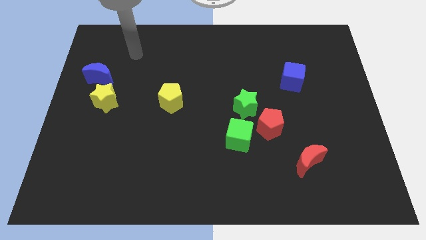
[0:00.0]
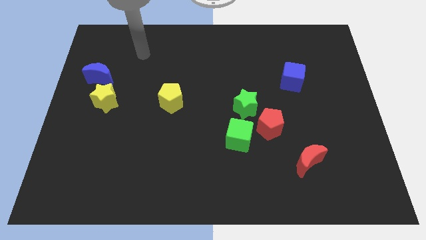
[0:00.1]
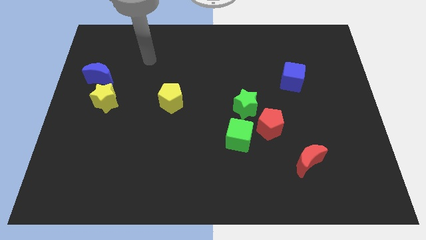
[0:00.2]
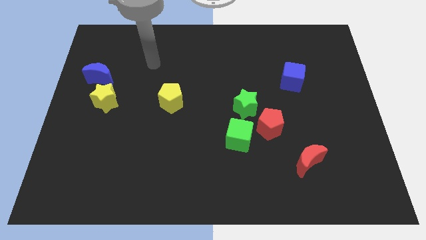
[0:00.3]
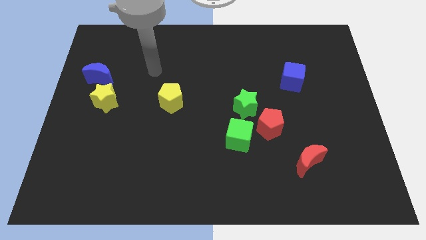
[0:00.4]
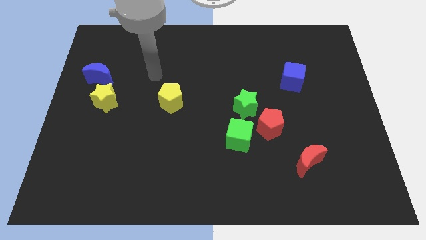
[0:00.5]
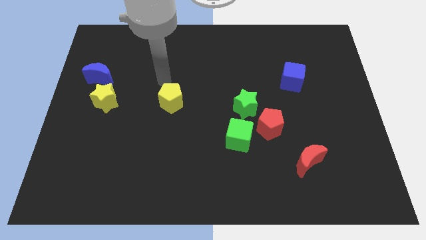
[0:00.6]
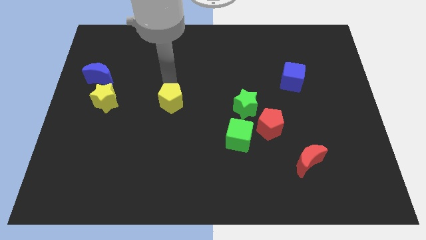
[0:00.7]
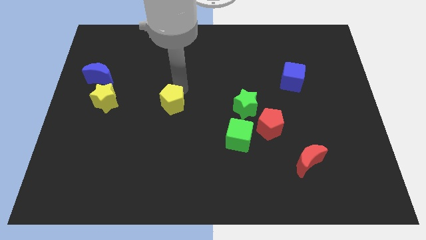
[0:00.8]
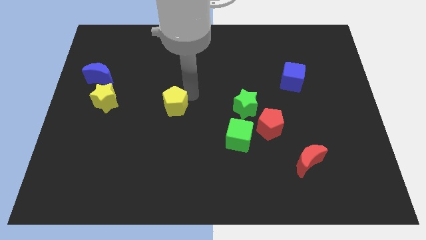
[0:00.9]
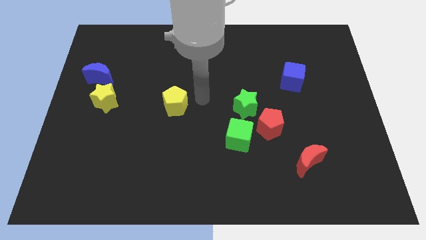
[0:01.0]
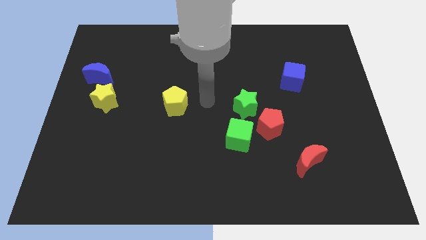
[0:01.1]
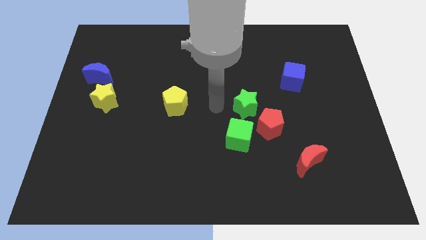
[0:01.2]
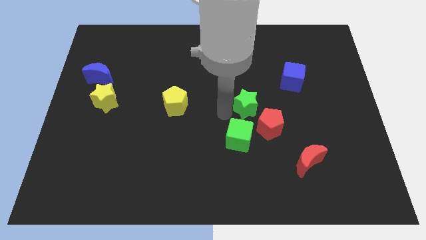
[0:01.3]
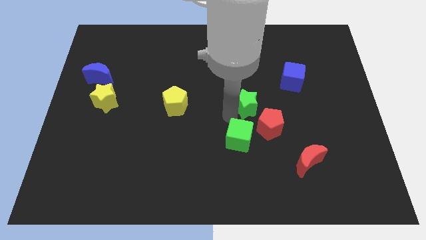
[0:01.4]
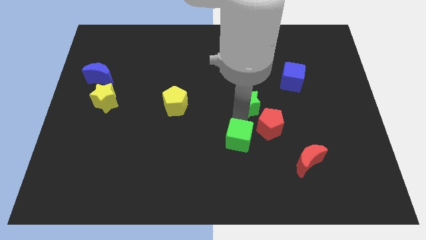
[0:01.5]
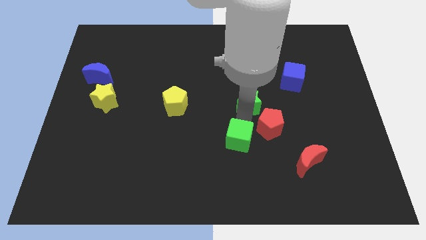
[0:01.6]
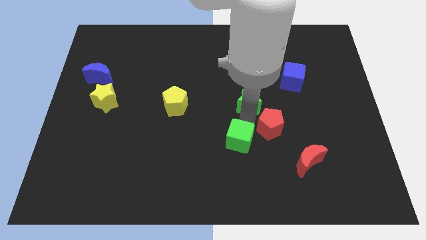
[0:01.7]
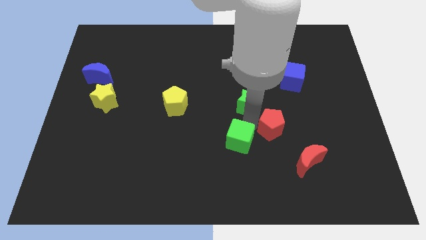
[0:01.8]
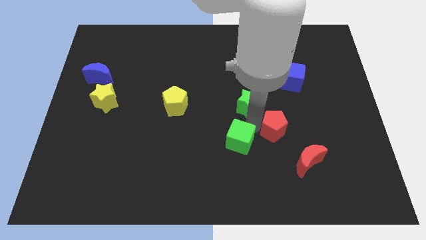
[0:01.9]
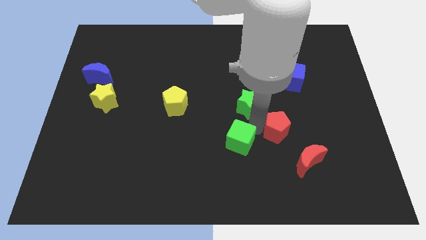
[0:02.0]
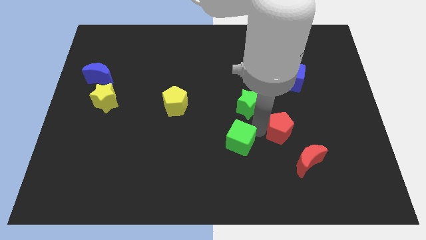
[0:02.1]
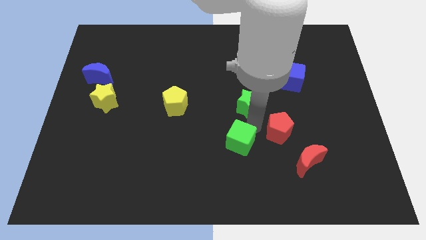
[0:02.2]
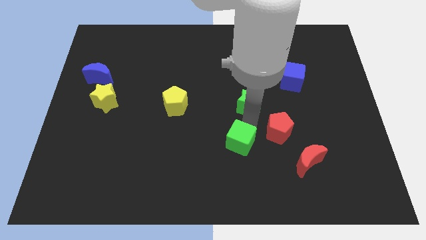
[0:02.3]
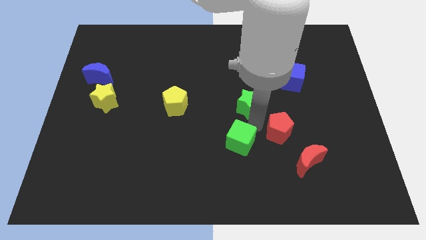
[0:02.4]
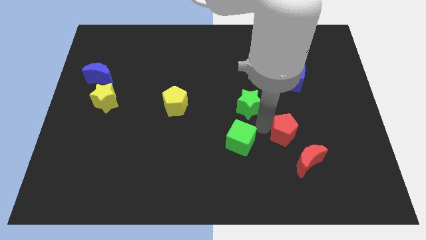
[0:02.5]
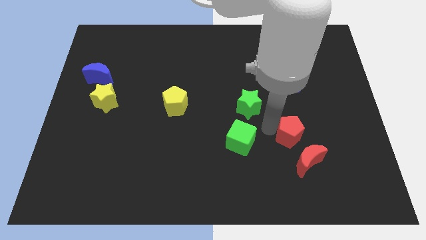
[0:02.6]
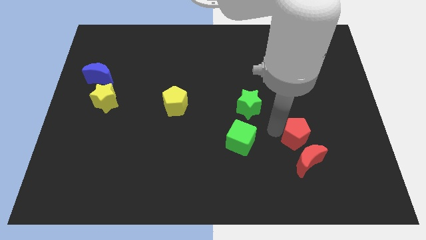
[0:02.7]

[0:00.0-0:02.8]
separate the red pentagon from the green star and green cube

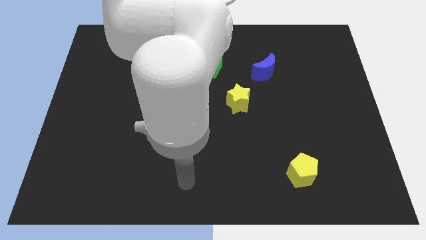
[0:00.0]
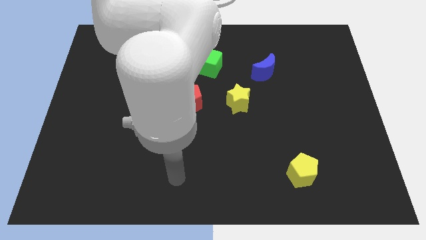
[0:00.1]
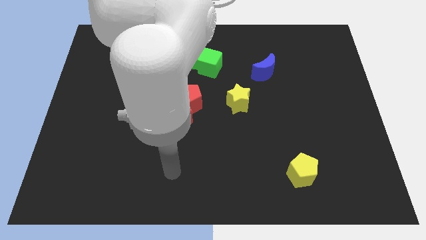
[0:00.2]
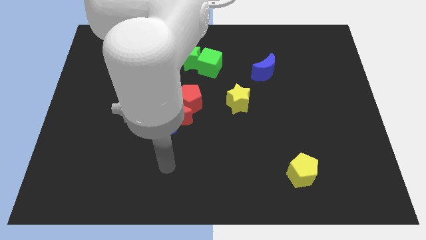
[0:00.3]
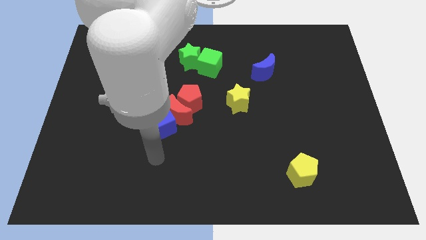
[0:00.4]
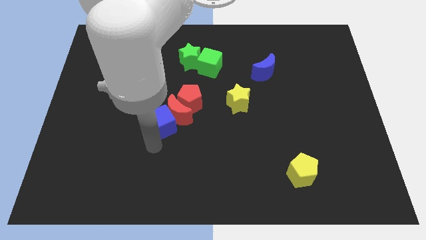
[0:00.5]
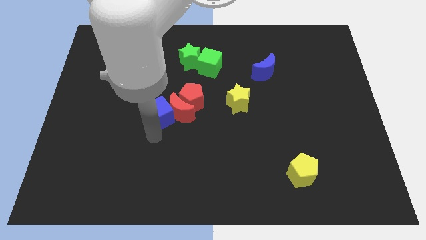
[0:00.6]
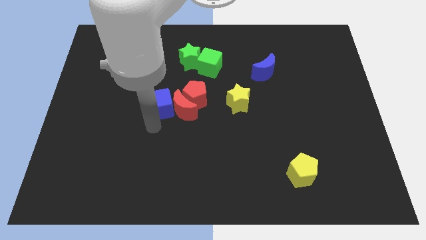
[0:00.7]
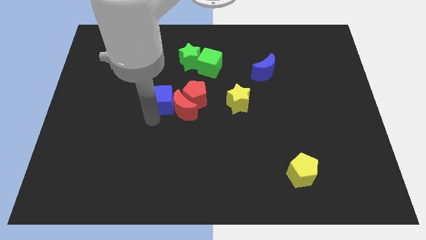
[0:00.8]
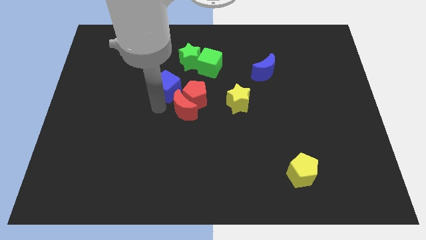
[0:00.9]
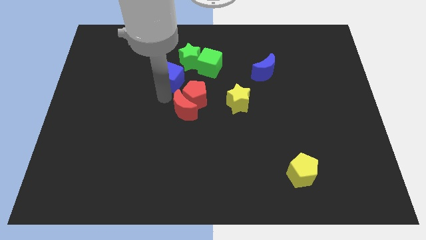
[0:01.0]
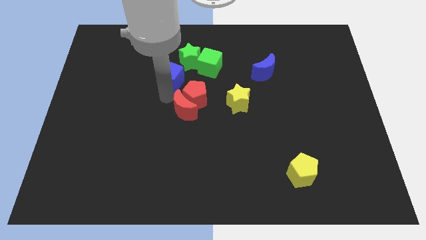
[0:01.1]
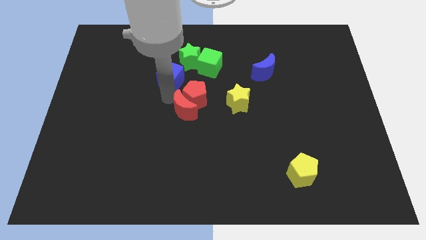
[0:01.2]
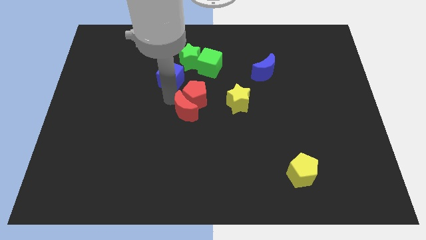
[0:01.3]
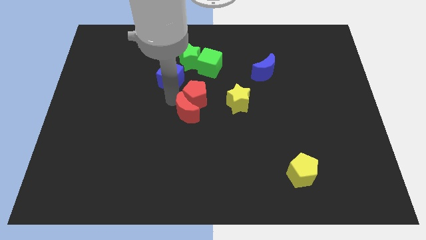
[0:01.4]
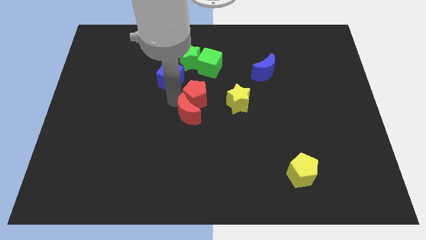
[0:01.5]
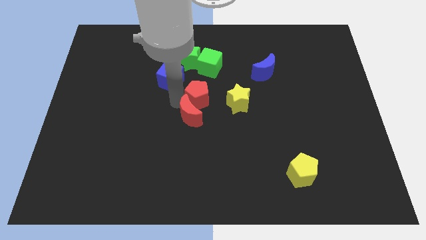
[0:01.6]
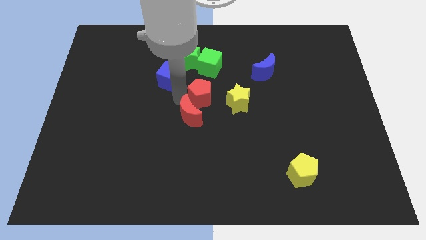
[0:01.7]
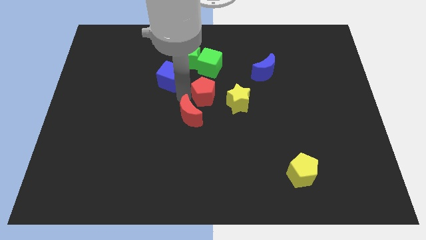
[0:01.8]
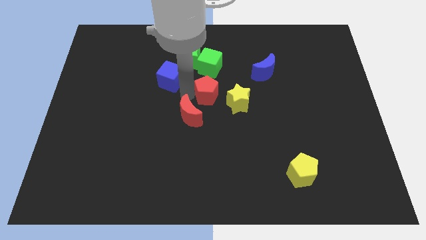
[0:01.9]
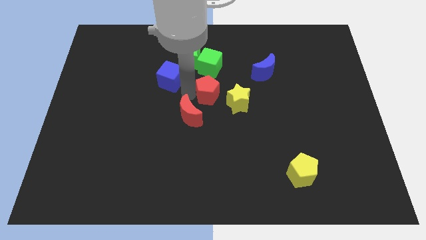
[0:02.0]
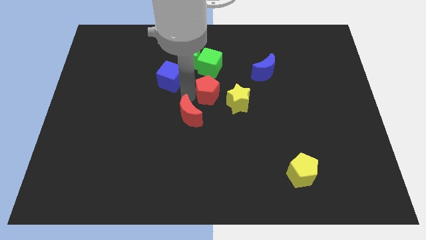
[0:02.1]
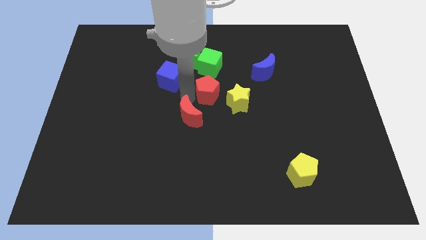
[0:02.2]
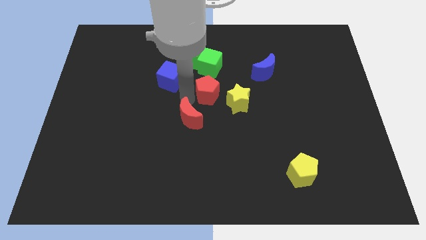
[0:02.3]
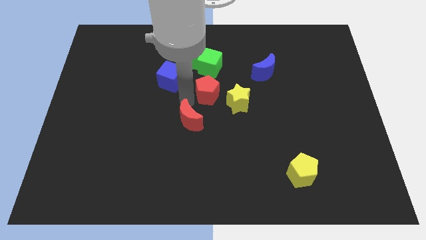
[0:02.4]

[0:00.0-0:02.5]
separate the red moon from the blue cube and red pentagon

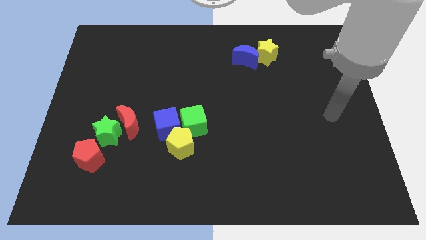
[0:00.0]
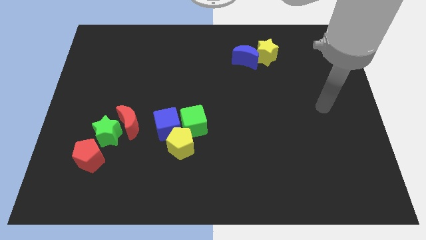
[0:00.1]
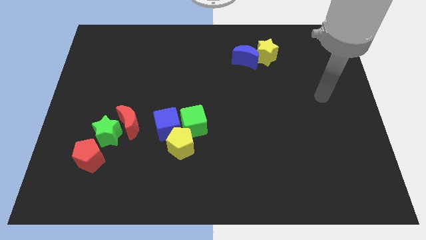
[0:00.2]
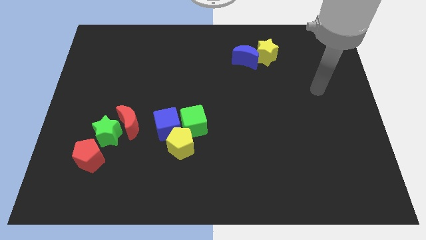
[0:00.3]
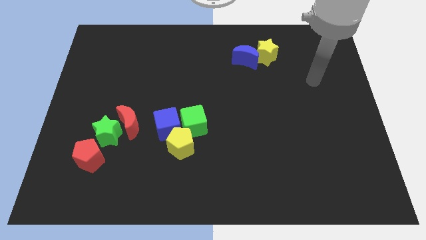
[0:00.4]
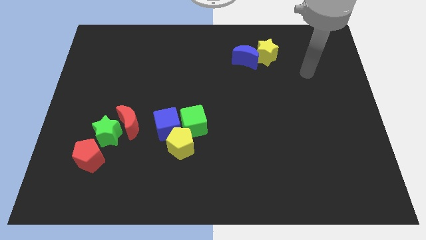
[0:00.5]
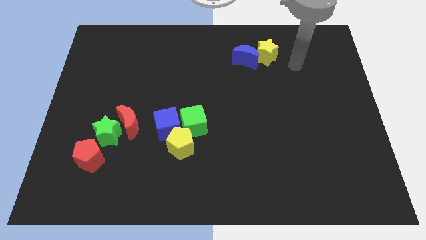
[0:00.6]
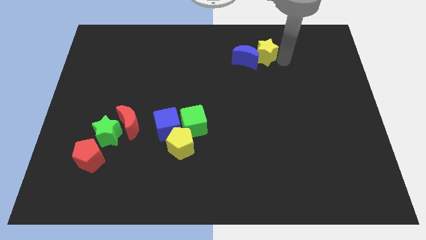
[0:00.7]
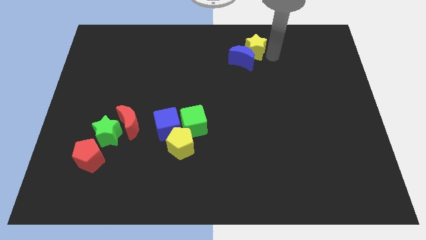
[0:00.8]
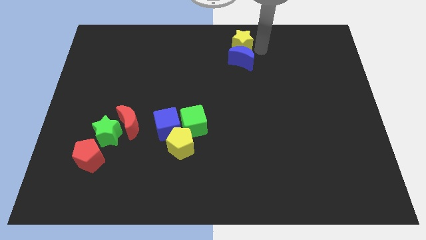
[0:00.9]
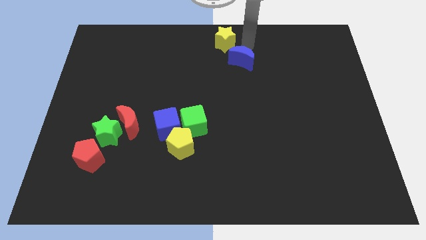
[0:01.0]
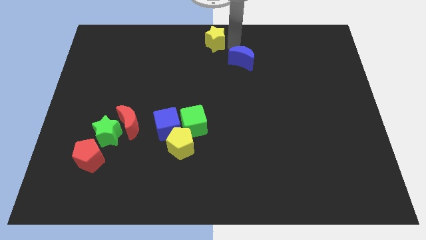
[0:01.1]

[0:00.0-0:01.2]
move the blue moon away from the yellow star

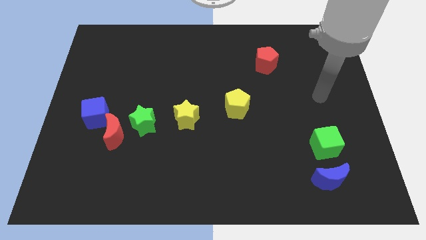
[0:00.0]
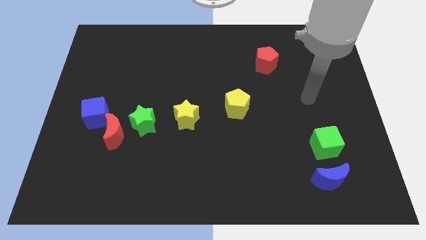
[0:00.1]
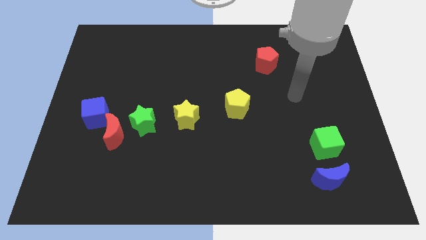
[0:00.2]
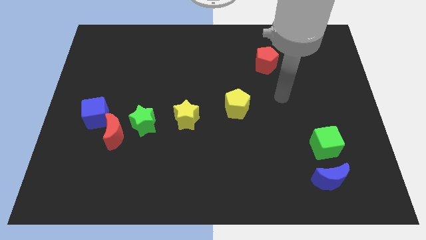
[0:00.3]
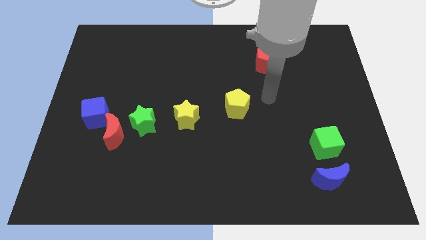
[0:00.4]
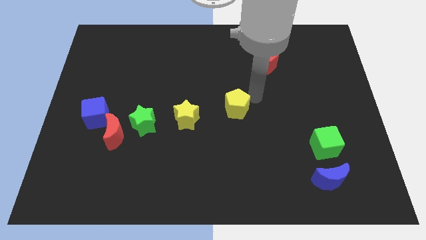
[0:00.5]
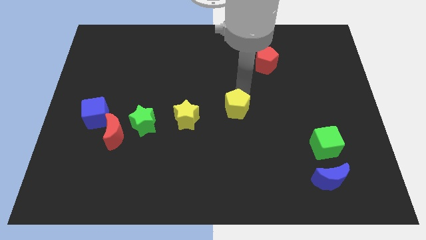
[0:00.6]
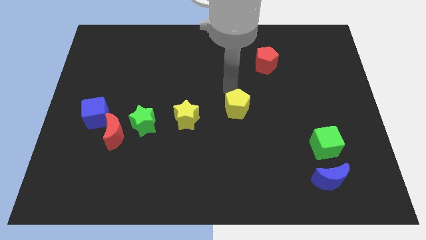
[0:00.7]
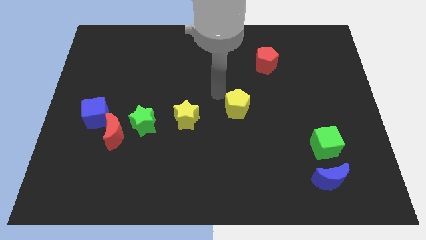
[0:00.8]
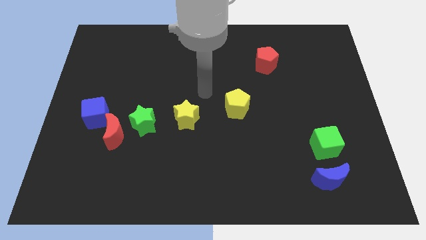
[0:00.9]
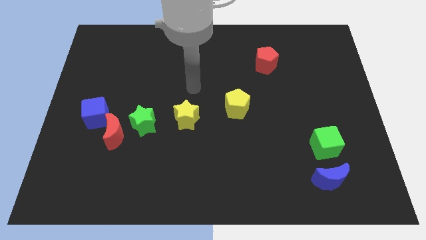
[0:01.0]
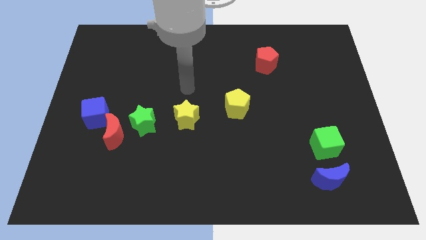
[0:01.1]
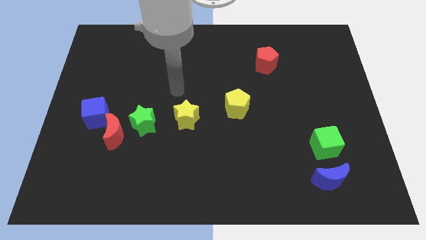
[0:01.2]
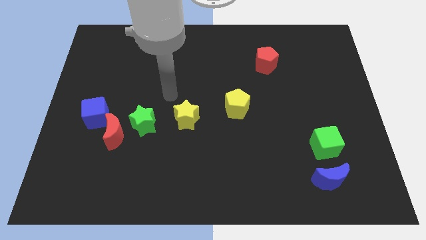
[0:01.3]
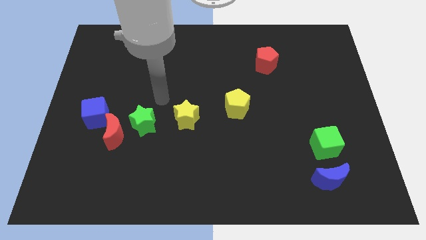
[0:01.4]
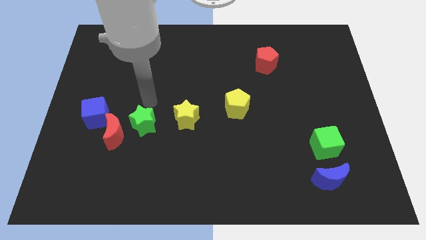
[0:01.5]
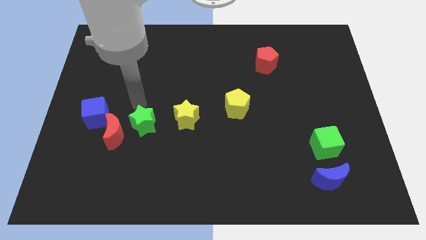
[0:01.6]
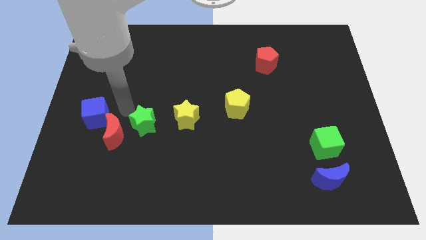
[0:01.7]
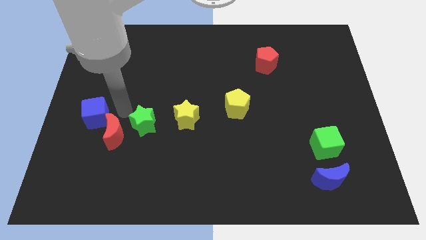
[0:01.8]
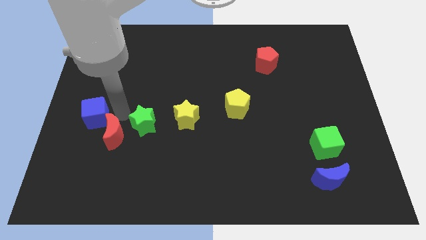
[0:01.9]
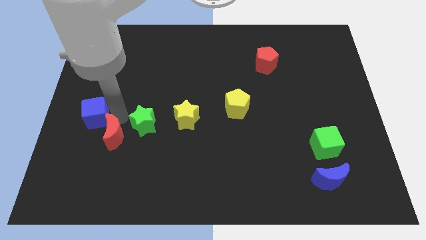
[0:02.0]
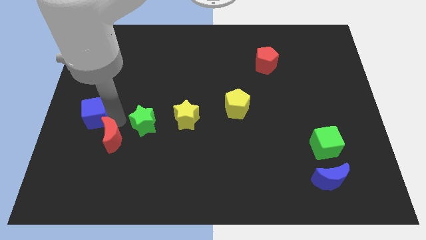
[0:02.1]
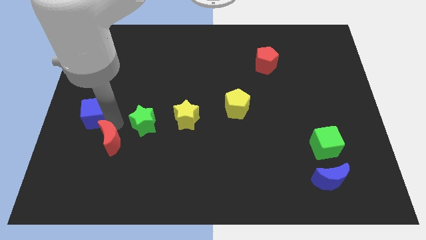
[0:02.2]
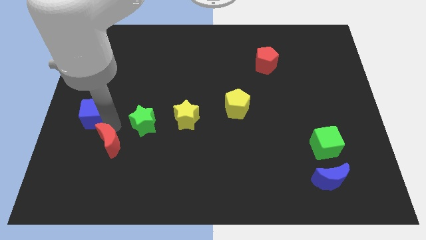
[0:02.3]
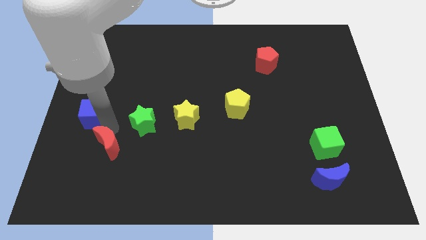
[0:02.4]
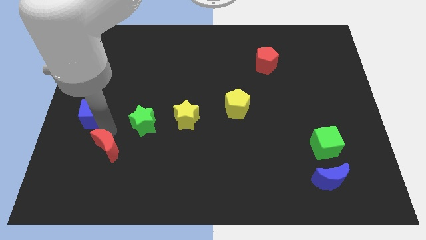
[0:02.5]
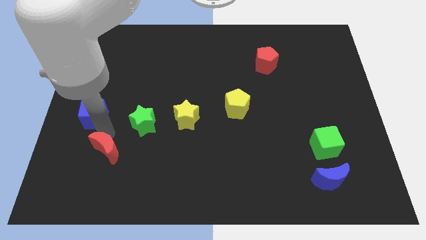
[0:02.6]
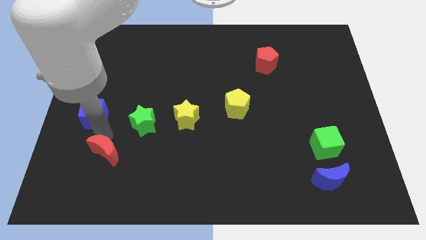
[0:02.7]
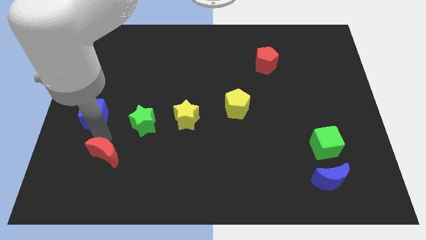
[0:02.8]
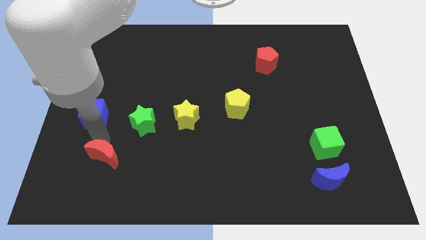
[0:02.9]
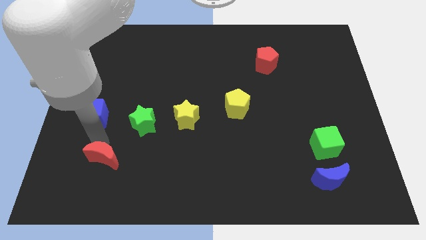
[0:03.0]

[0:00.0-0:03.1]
move the red moon away from the green star and blue cube

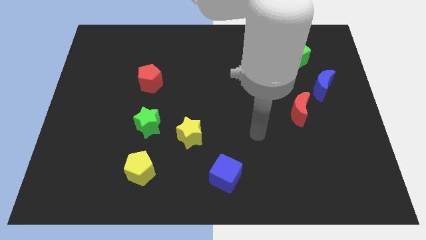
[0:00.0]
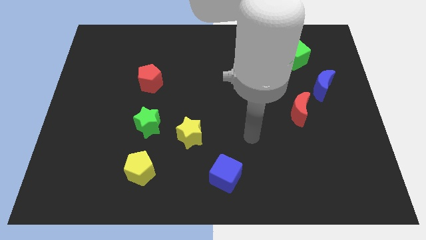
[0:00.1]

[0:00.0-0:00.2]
pull the green star apart from the yellow star
